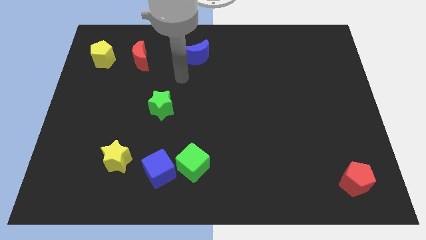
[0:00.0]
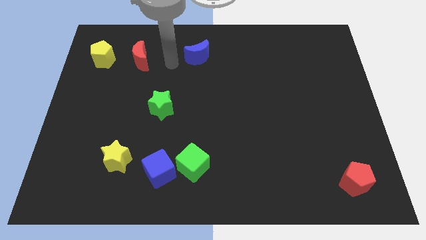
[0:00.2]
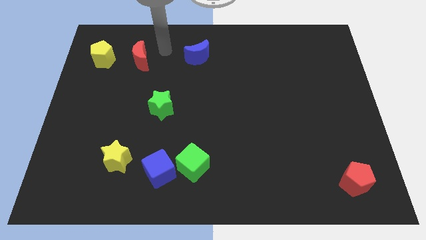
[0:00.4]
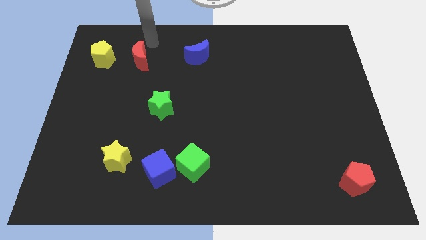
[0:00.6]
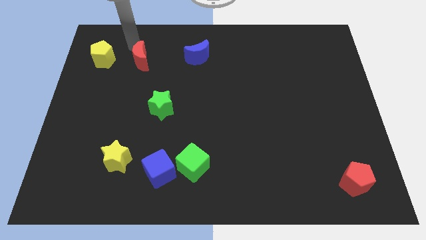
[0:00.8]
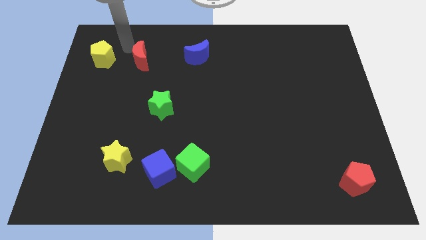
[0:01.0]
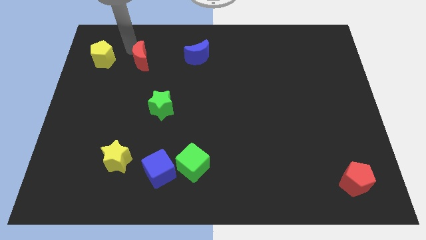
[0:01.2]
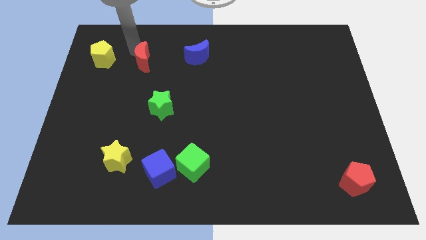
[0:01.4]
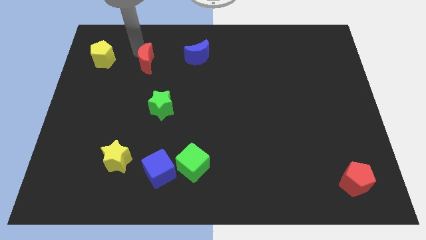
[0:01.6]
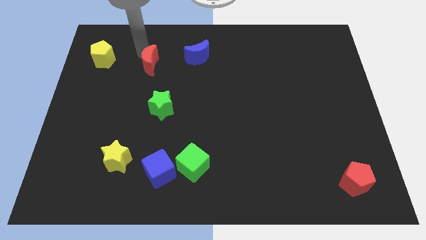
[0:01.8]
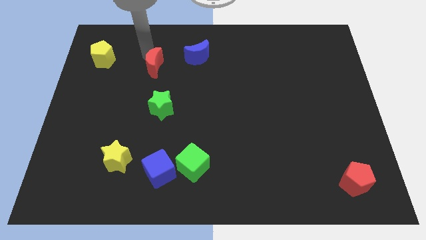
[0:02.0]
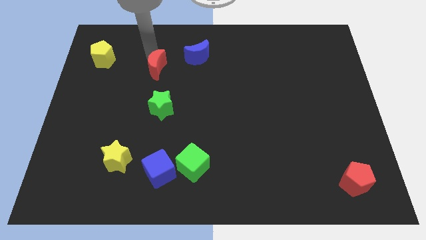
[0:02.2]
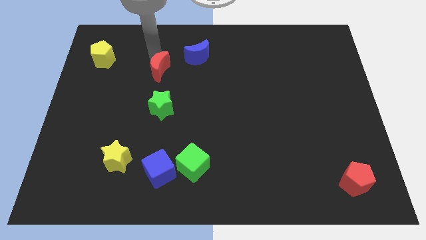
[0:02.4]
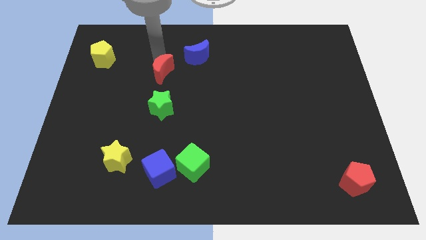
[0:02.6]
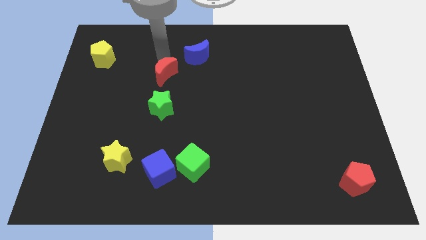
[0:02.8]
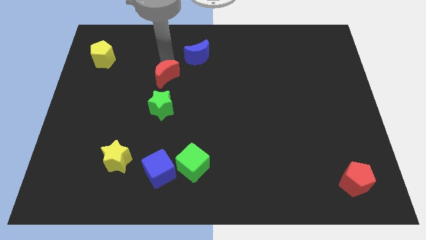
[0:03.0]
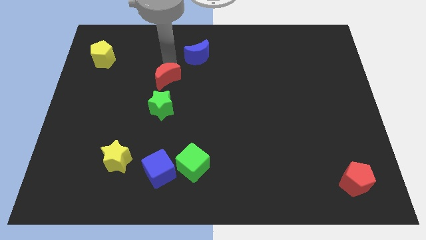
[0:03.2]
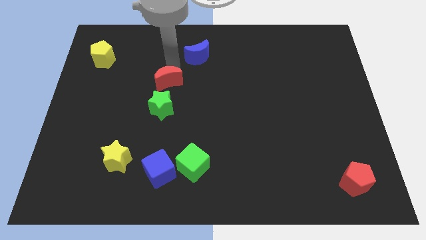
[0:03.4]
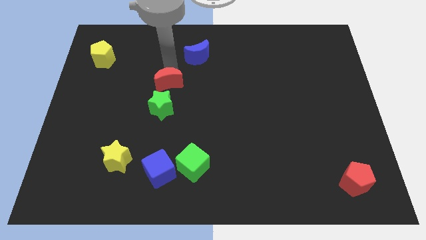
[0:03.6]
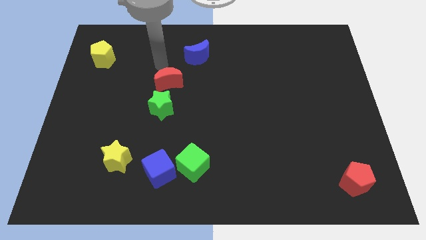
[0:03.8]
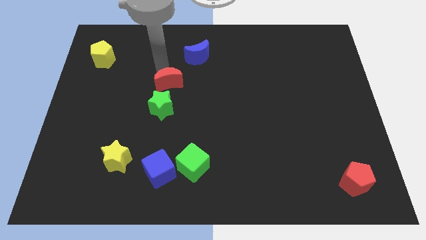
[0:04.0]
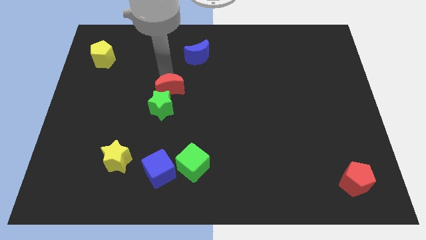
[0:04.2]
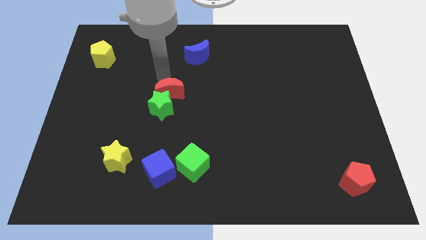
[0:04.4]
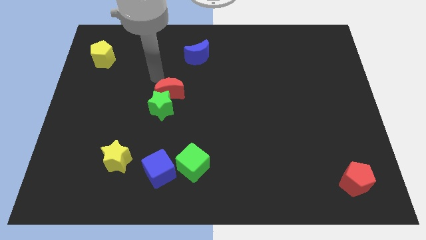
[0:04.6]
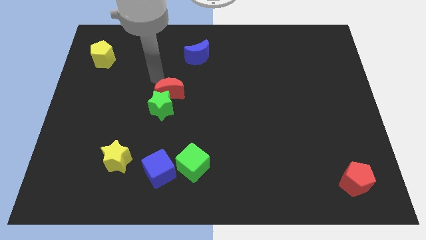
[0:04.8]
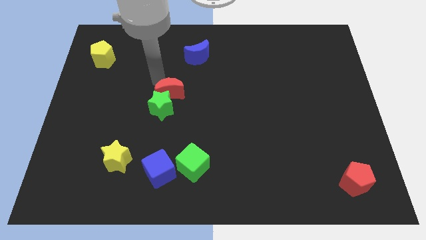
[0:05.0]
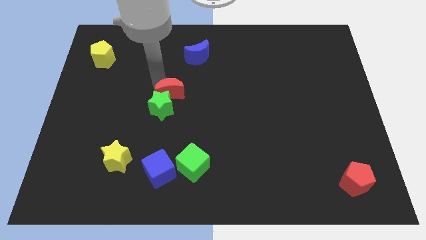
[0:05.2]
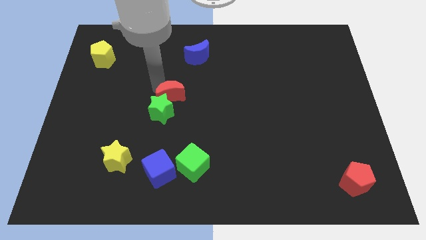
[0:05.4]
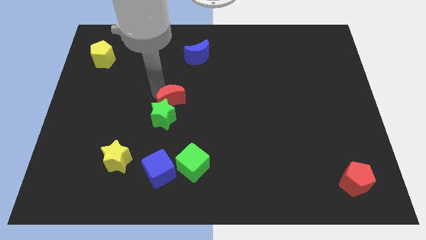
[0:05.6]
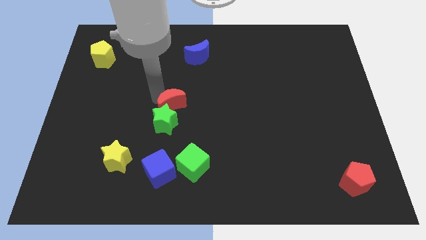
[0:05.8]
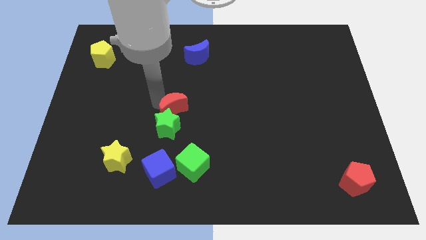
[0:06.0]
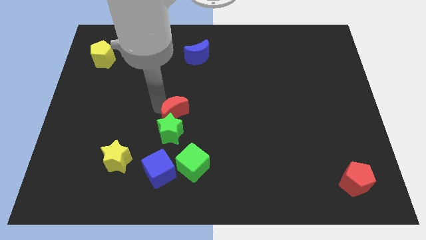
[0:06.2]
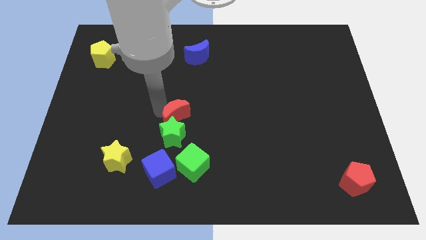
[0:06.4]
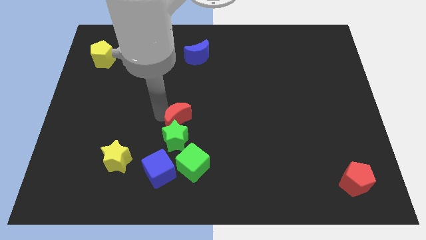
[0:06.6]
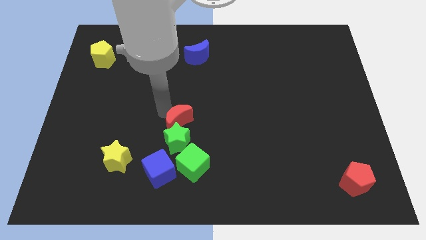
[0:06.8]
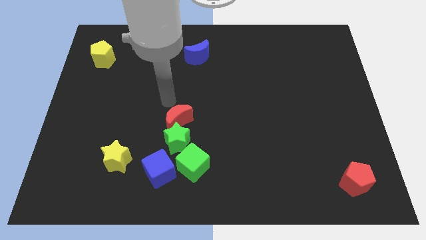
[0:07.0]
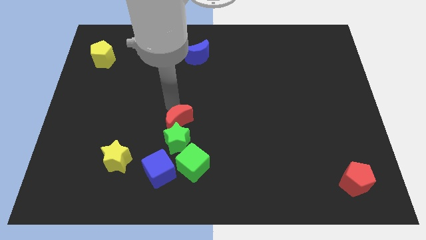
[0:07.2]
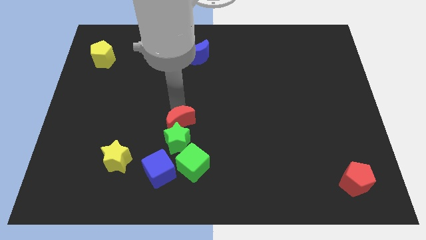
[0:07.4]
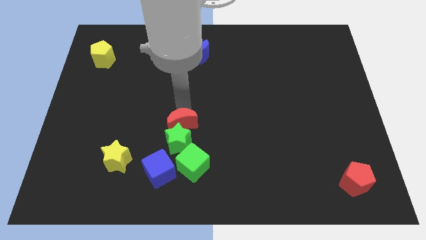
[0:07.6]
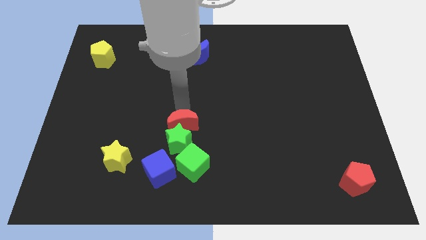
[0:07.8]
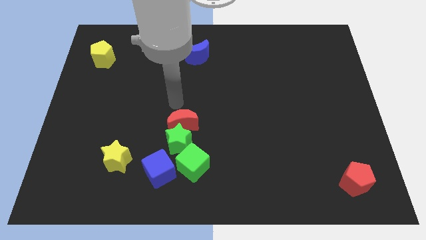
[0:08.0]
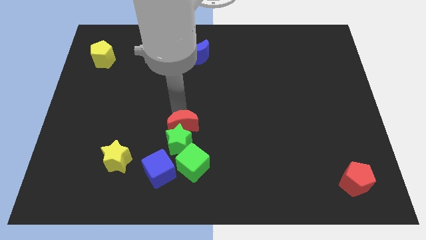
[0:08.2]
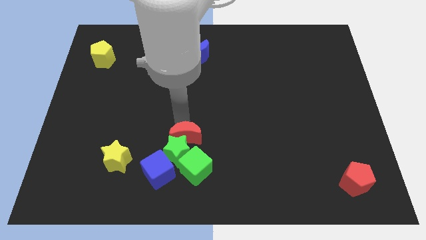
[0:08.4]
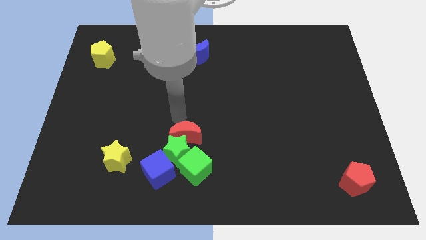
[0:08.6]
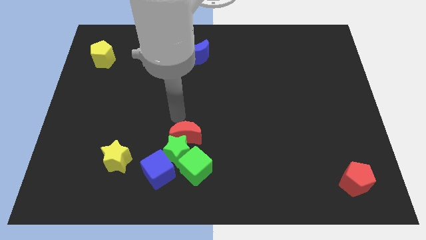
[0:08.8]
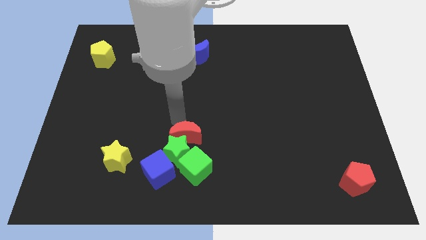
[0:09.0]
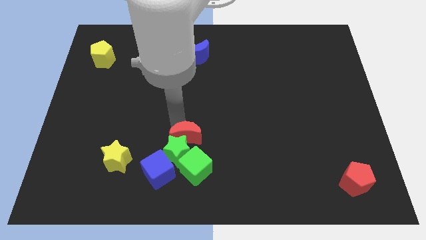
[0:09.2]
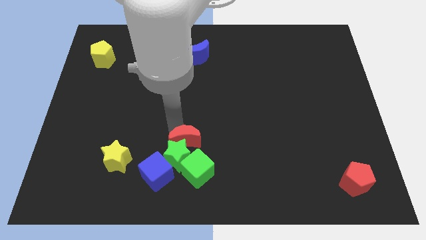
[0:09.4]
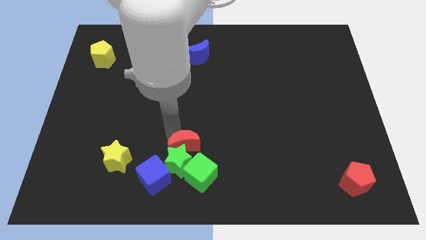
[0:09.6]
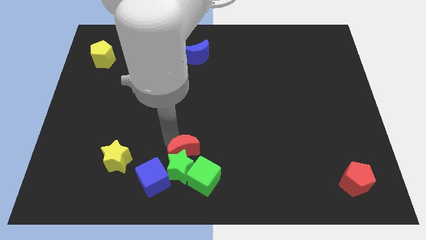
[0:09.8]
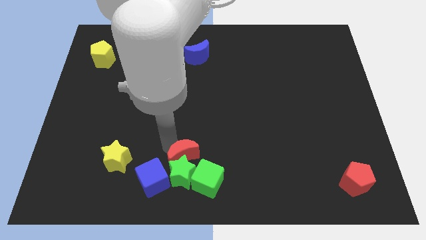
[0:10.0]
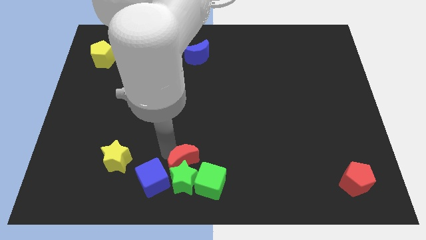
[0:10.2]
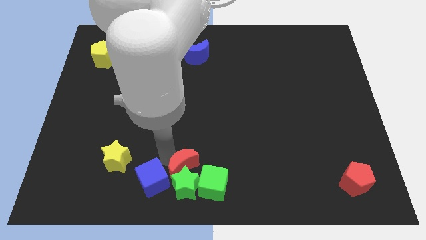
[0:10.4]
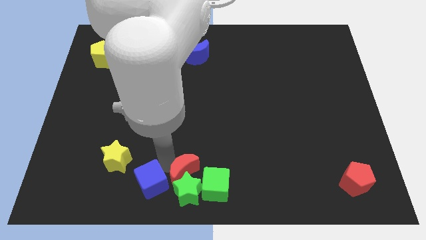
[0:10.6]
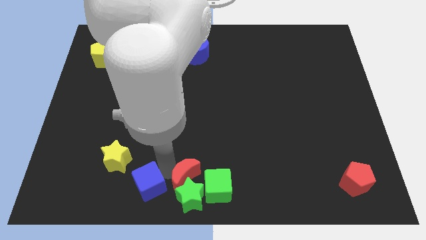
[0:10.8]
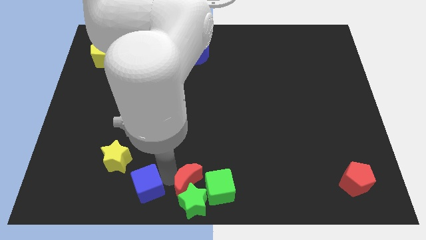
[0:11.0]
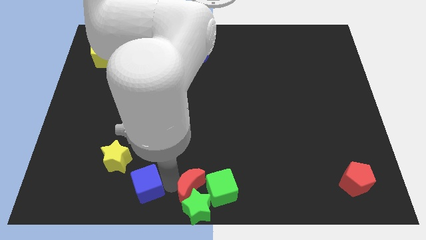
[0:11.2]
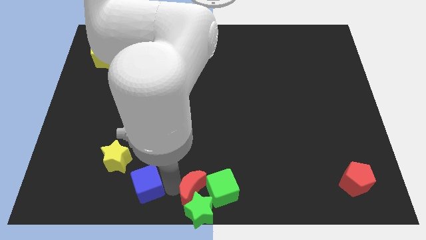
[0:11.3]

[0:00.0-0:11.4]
push the red moon close to the green cube

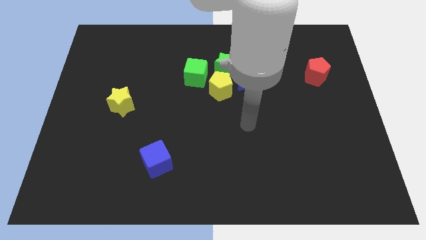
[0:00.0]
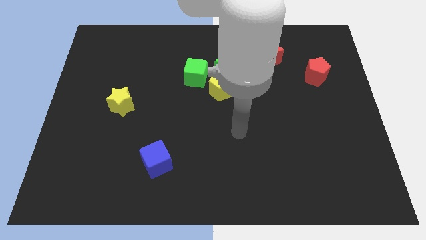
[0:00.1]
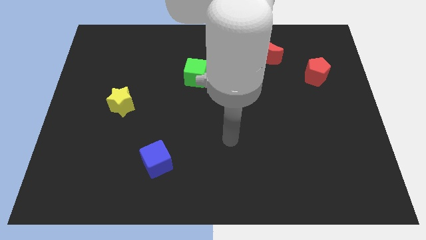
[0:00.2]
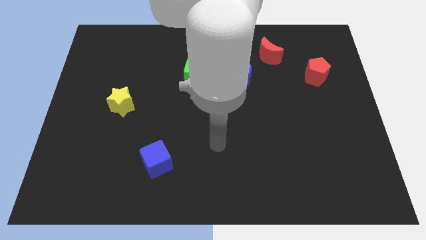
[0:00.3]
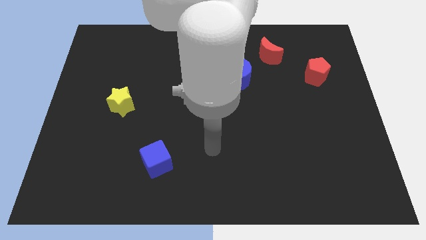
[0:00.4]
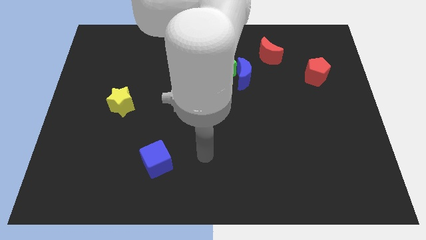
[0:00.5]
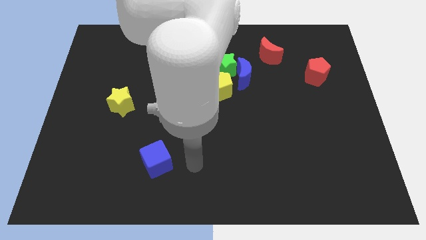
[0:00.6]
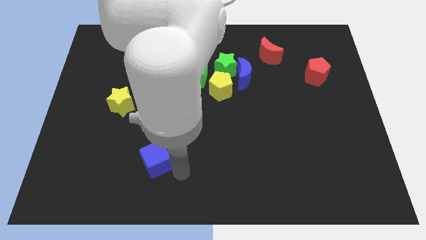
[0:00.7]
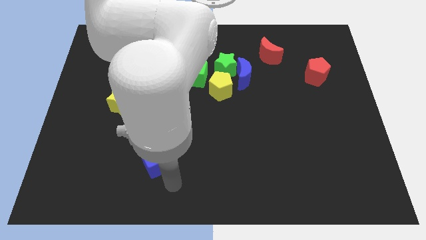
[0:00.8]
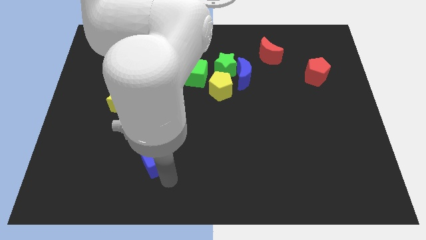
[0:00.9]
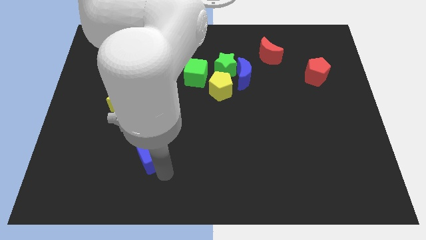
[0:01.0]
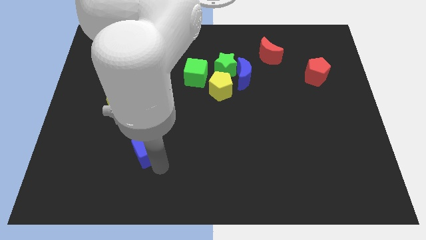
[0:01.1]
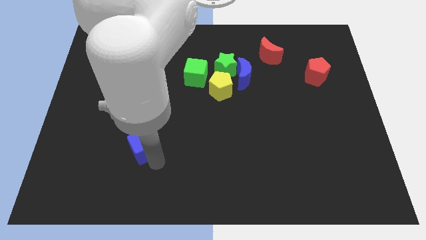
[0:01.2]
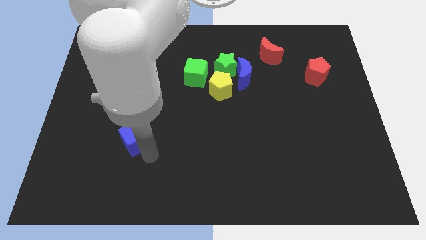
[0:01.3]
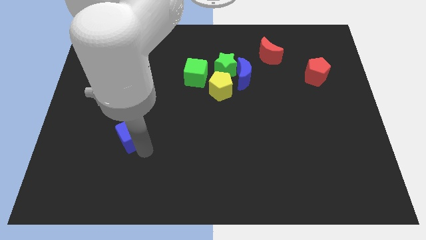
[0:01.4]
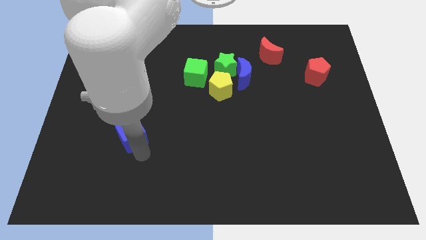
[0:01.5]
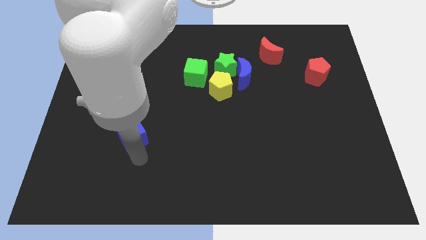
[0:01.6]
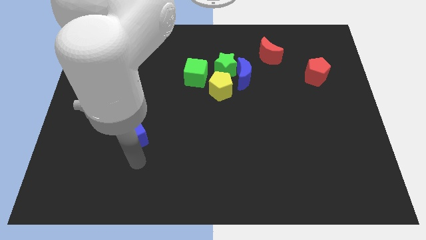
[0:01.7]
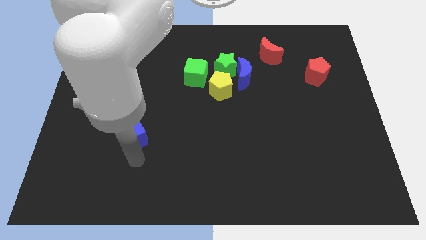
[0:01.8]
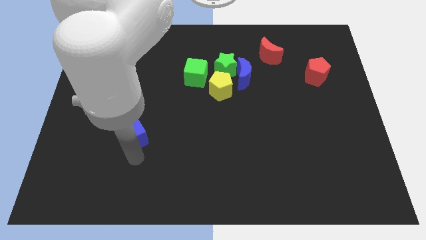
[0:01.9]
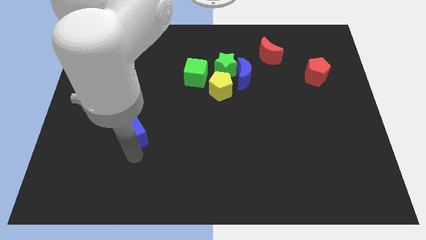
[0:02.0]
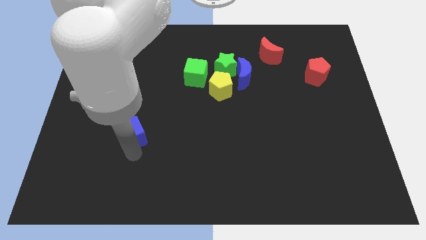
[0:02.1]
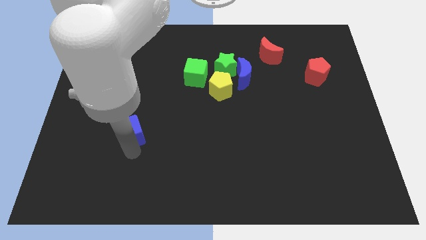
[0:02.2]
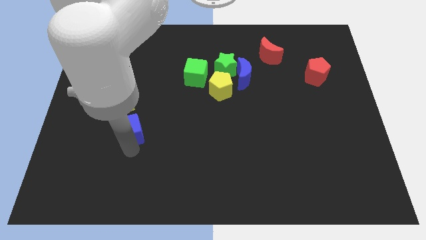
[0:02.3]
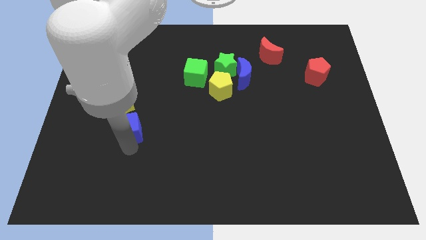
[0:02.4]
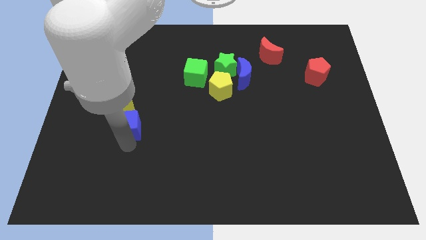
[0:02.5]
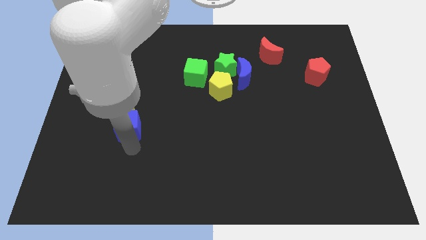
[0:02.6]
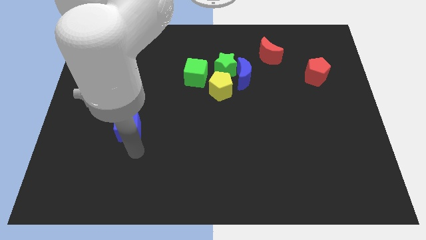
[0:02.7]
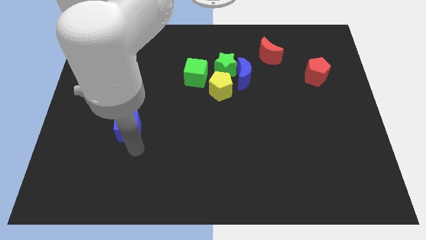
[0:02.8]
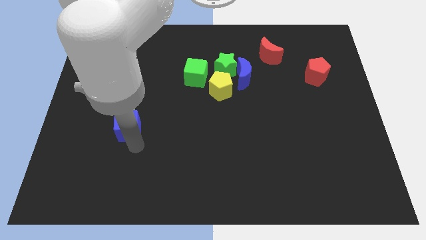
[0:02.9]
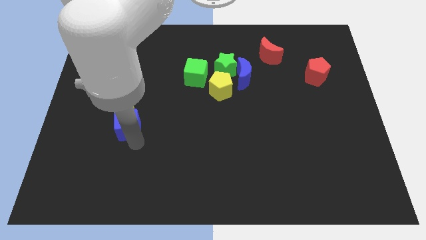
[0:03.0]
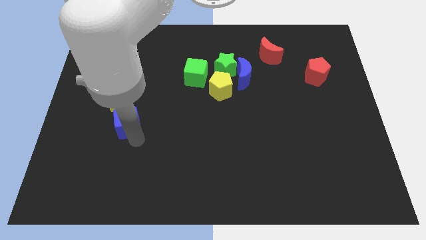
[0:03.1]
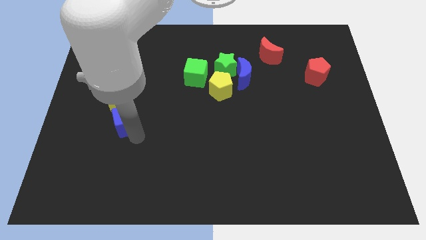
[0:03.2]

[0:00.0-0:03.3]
slide the blue cube to the yellow star
